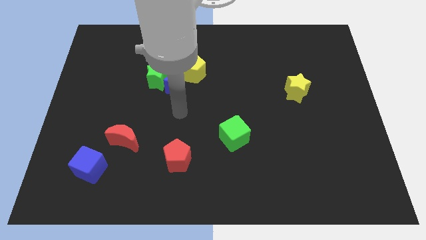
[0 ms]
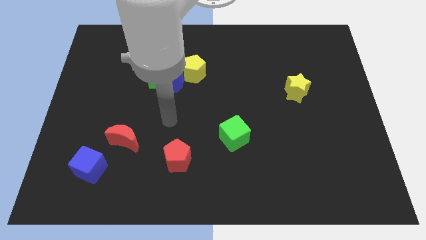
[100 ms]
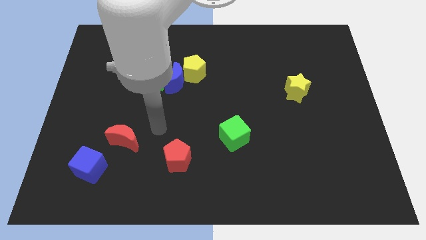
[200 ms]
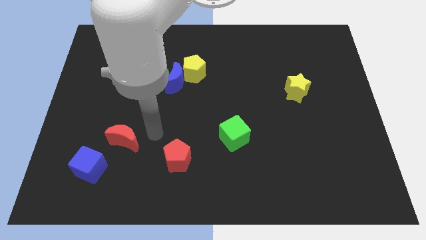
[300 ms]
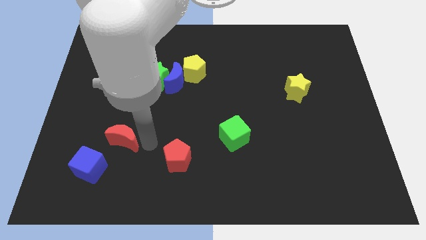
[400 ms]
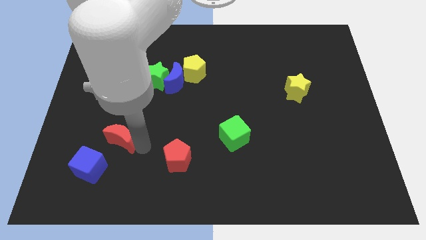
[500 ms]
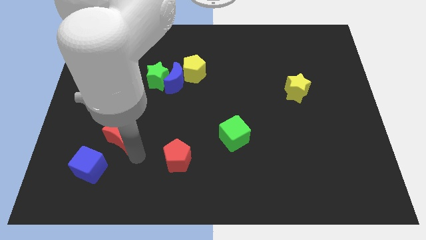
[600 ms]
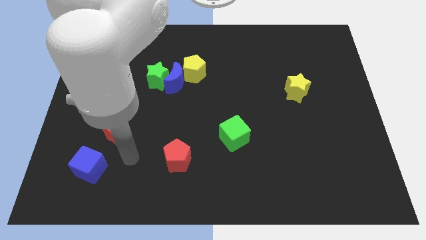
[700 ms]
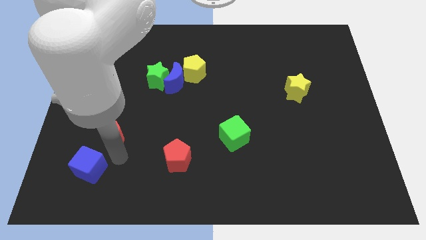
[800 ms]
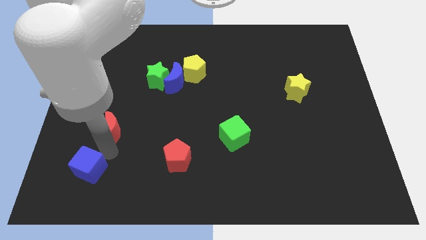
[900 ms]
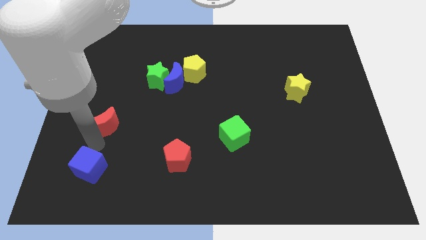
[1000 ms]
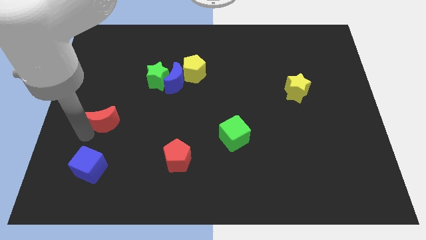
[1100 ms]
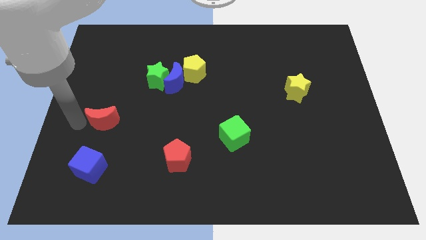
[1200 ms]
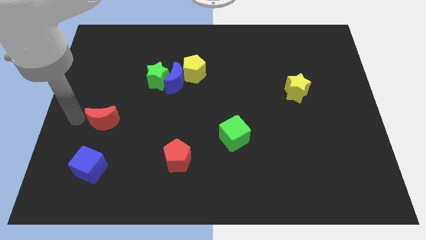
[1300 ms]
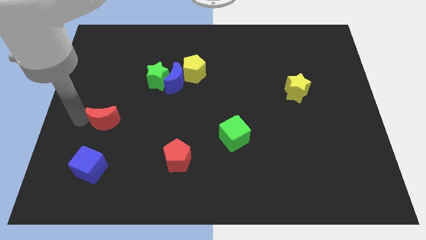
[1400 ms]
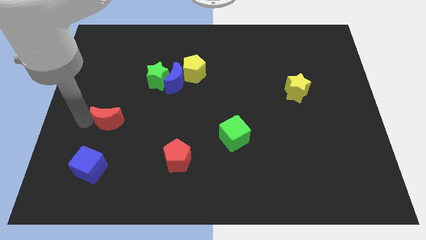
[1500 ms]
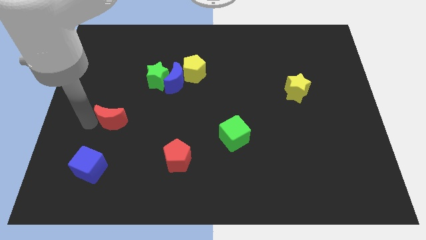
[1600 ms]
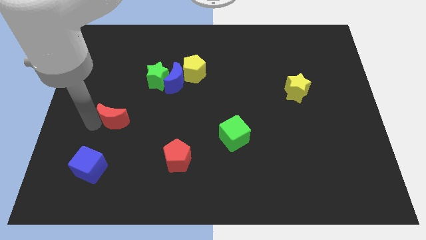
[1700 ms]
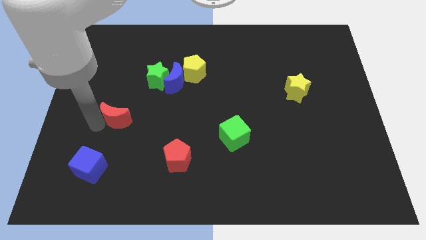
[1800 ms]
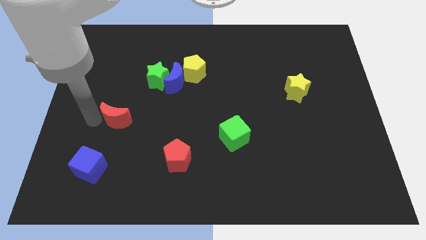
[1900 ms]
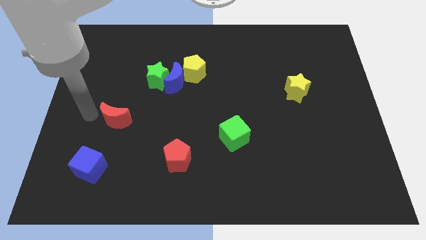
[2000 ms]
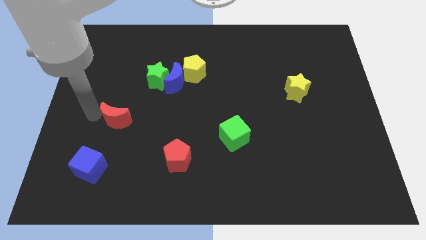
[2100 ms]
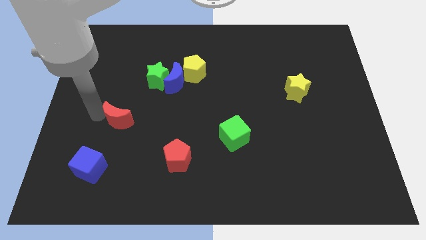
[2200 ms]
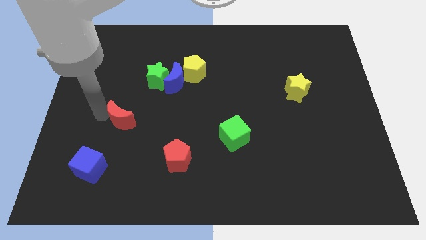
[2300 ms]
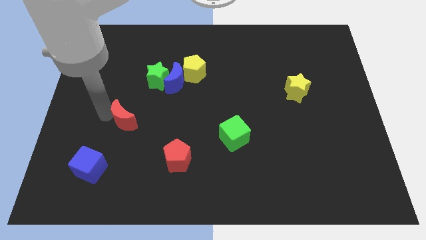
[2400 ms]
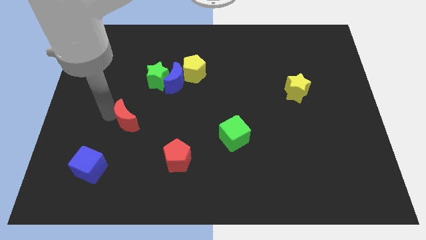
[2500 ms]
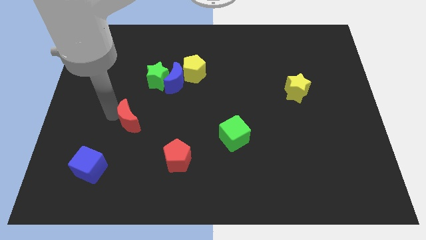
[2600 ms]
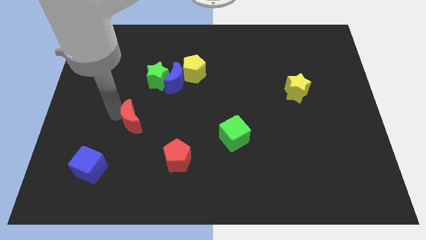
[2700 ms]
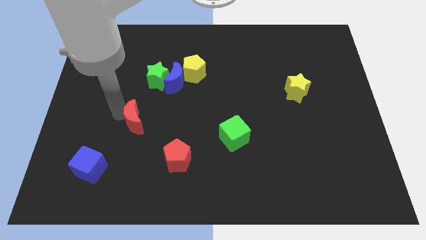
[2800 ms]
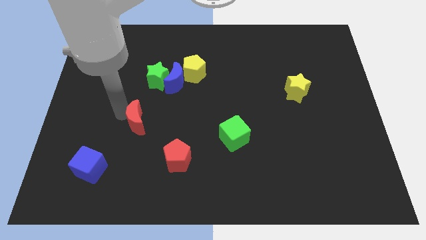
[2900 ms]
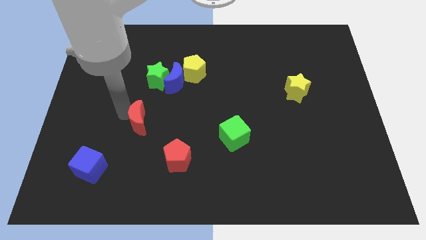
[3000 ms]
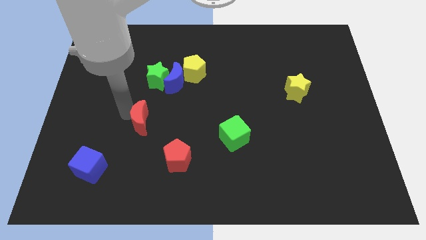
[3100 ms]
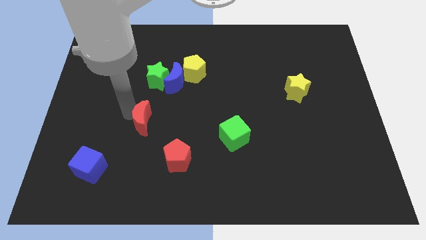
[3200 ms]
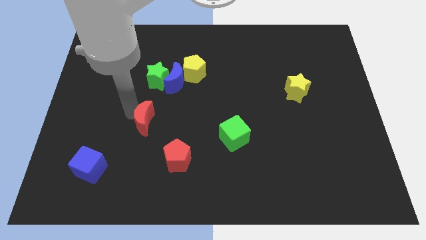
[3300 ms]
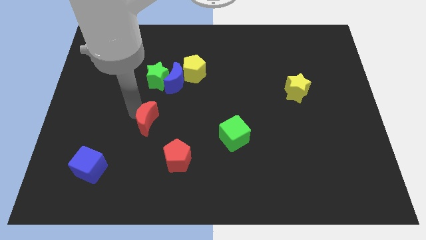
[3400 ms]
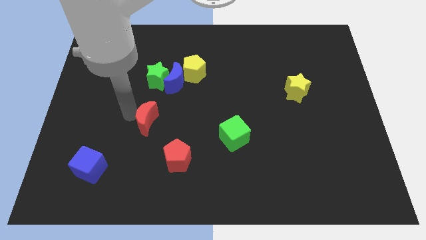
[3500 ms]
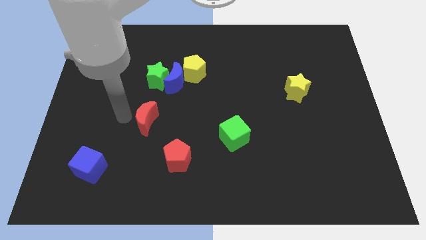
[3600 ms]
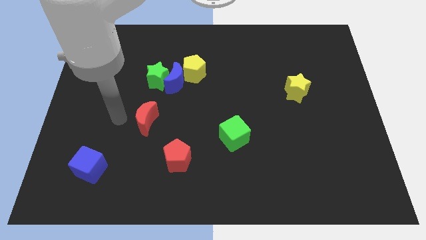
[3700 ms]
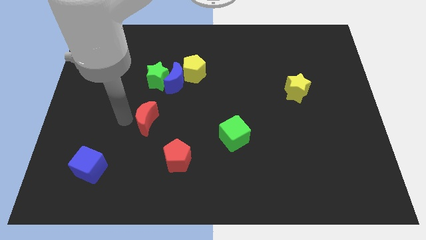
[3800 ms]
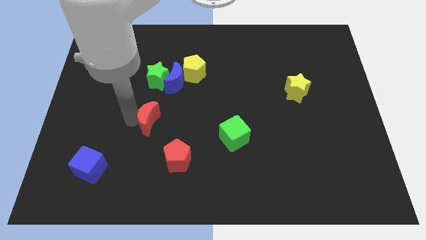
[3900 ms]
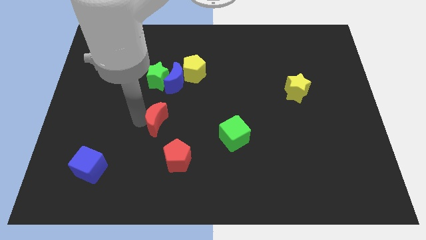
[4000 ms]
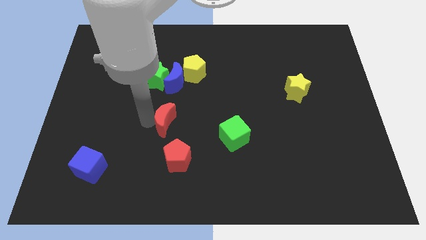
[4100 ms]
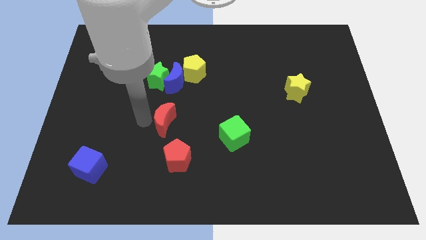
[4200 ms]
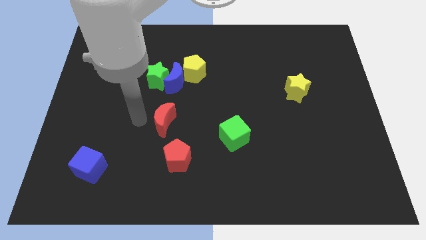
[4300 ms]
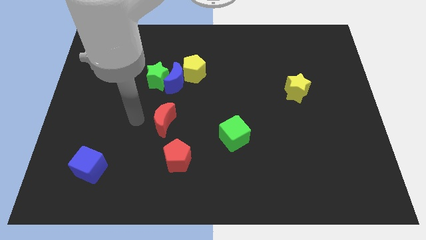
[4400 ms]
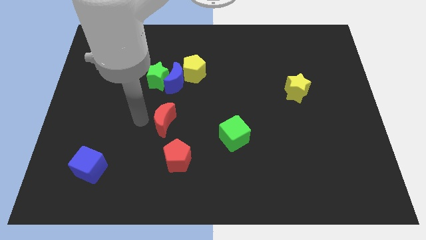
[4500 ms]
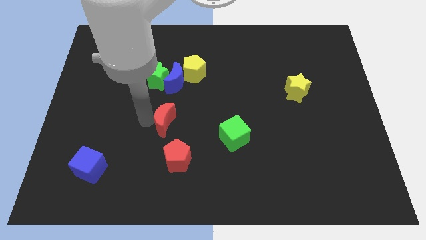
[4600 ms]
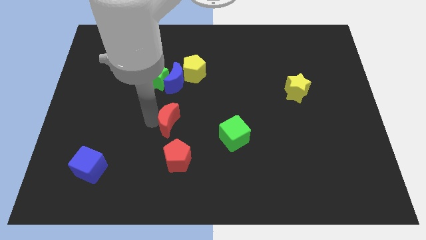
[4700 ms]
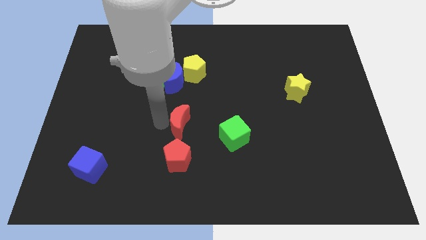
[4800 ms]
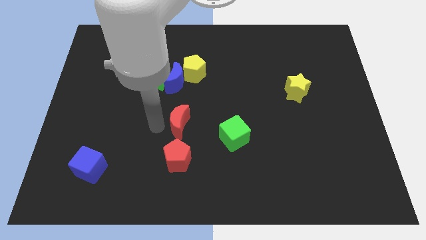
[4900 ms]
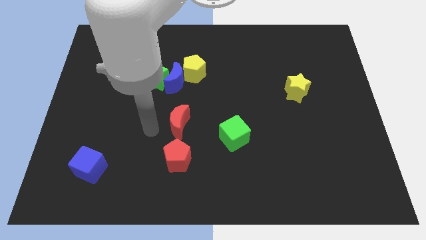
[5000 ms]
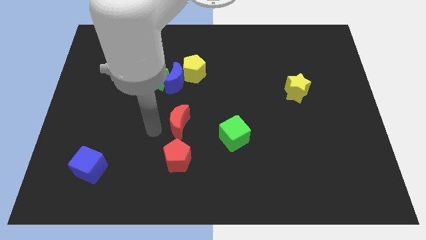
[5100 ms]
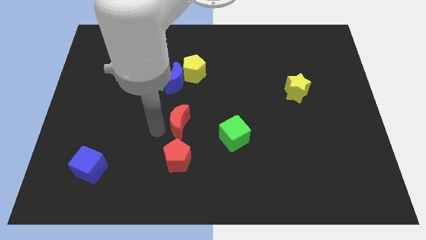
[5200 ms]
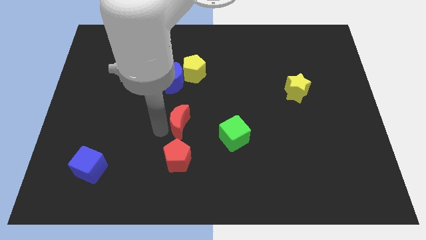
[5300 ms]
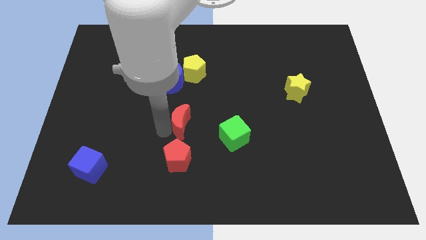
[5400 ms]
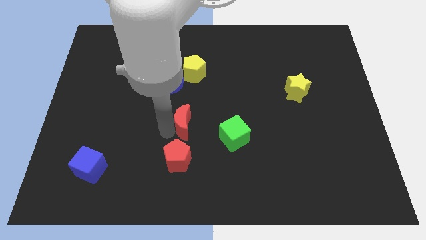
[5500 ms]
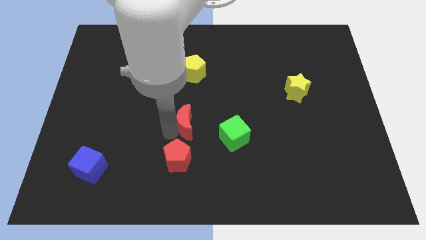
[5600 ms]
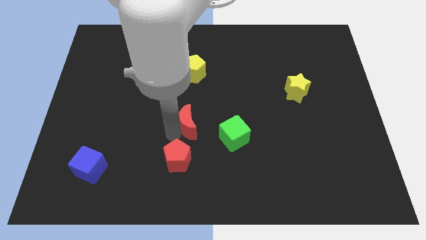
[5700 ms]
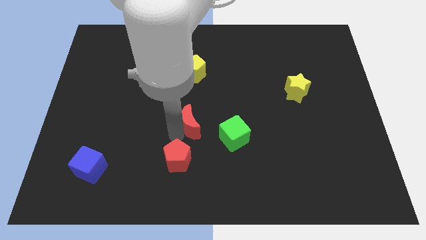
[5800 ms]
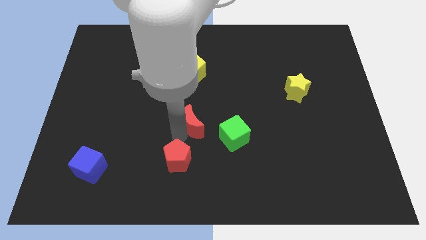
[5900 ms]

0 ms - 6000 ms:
put the red moon to the top left of the green cube
